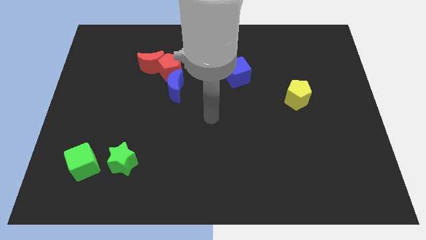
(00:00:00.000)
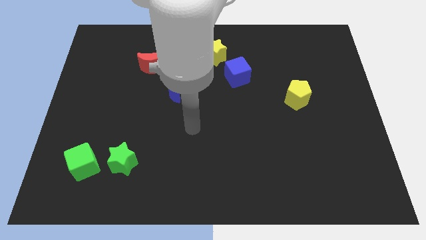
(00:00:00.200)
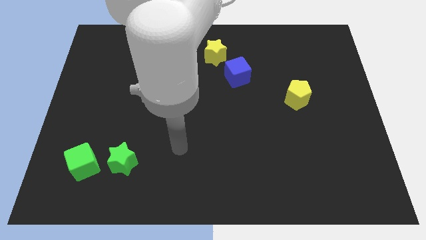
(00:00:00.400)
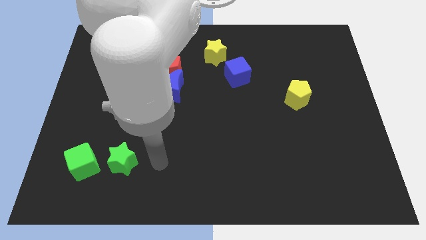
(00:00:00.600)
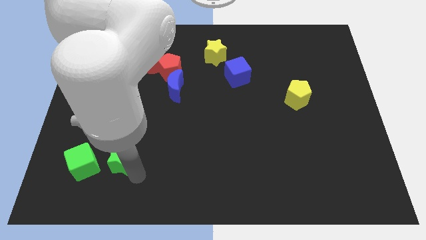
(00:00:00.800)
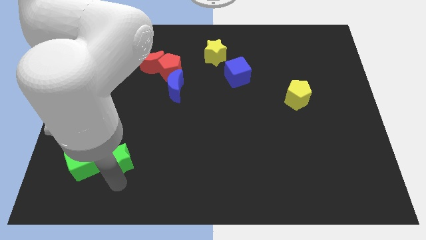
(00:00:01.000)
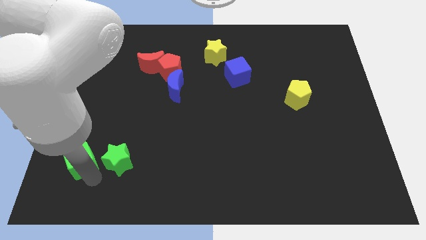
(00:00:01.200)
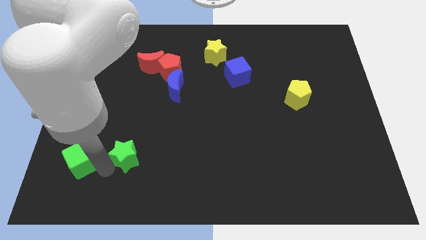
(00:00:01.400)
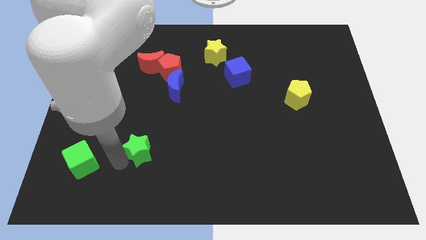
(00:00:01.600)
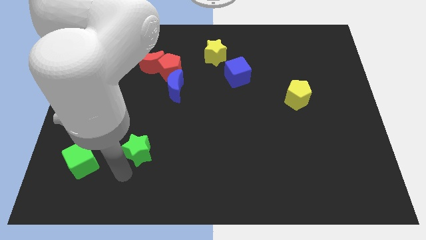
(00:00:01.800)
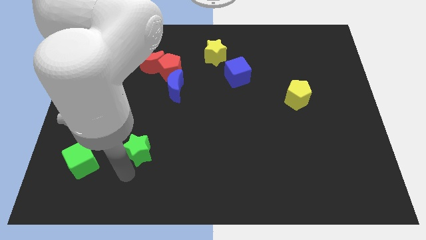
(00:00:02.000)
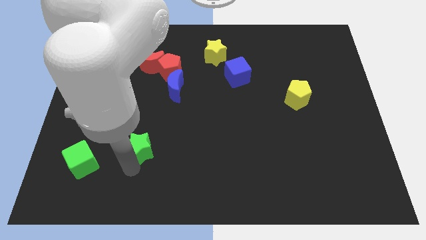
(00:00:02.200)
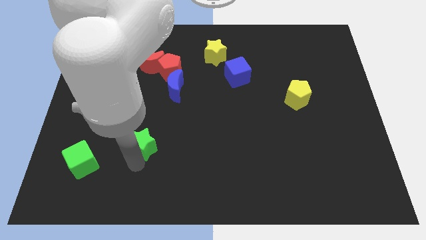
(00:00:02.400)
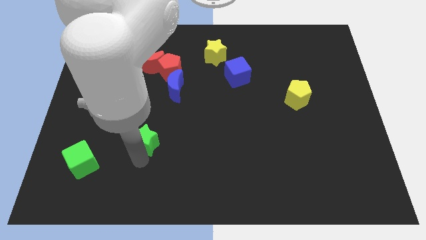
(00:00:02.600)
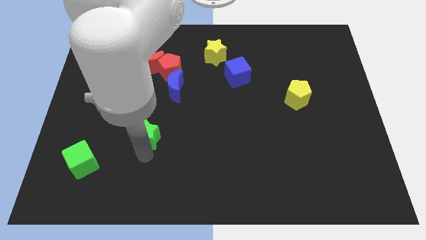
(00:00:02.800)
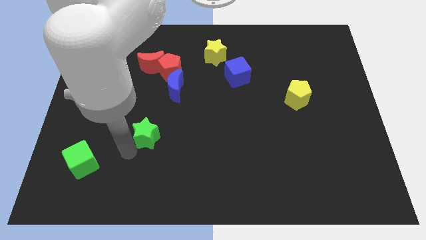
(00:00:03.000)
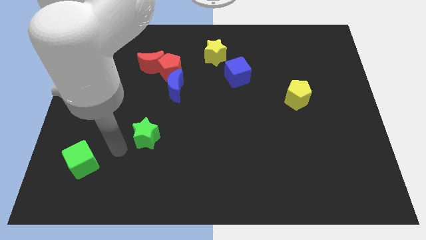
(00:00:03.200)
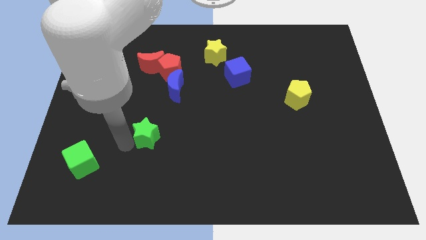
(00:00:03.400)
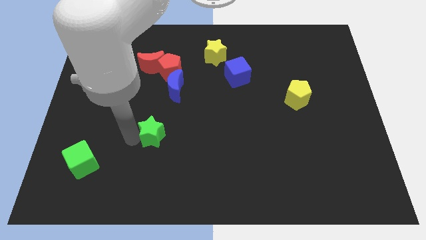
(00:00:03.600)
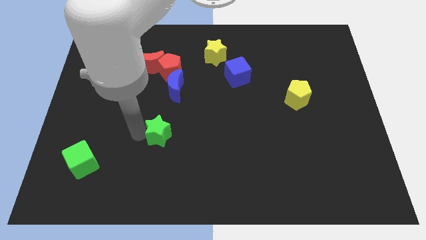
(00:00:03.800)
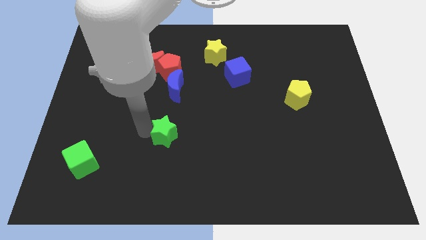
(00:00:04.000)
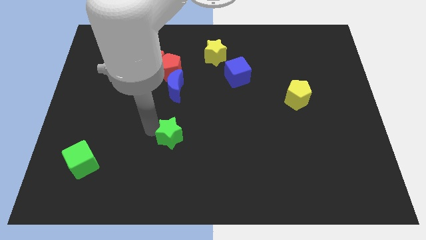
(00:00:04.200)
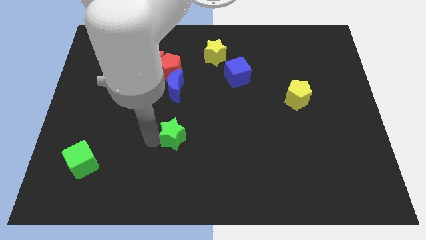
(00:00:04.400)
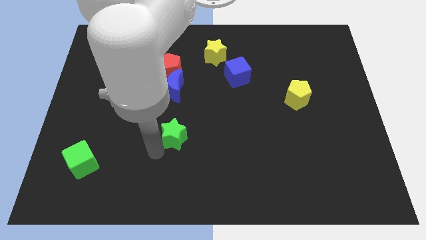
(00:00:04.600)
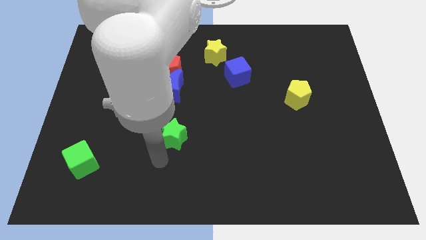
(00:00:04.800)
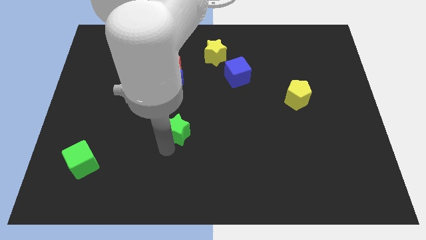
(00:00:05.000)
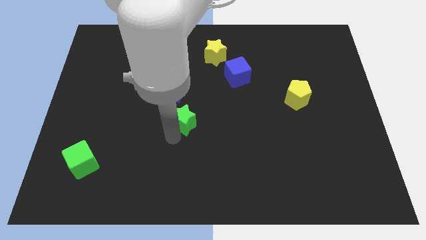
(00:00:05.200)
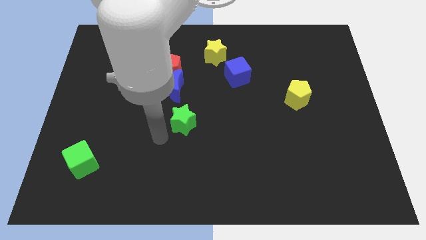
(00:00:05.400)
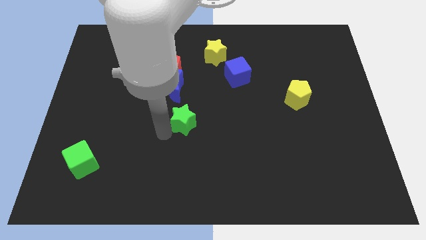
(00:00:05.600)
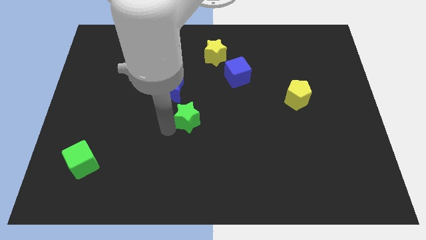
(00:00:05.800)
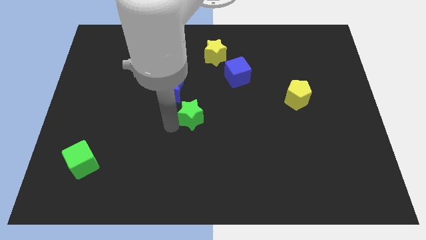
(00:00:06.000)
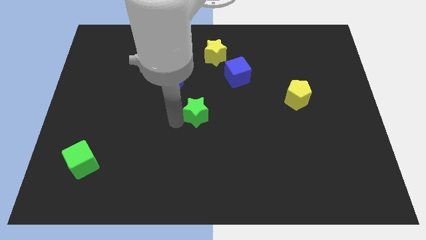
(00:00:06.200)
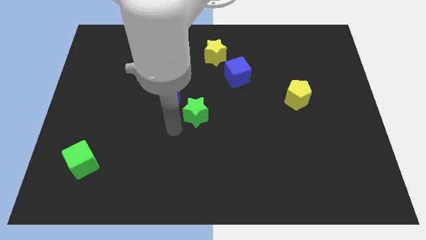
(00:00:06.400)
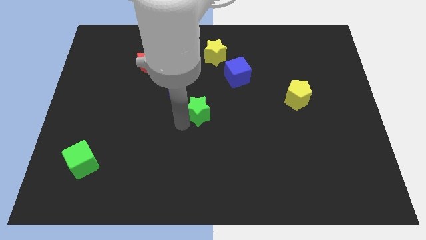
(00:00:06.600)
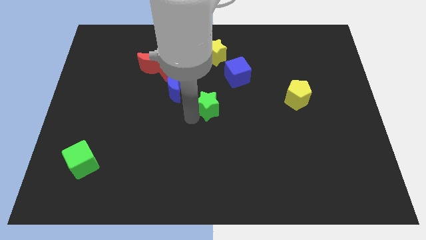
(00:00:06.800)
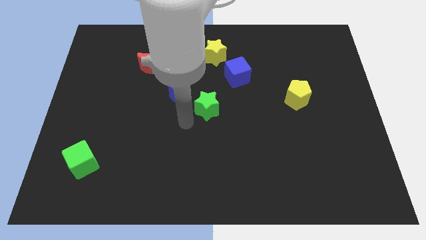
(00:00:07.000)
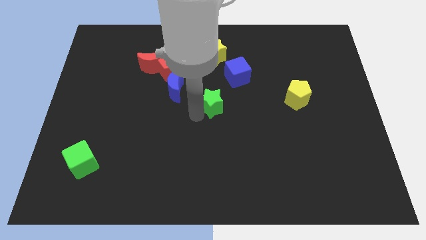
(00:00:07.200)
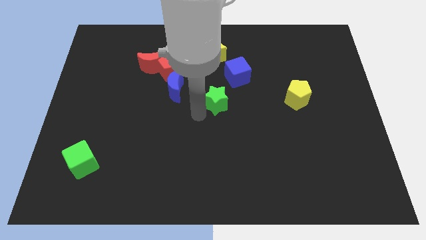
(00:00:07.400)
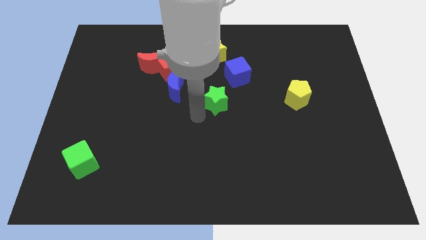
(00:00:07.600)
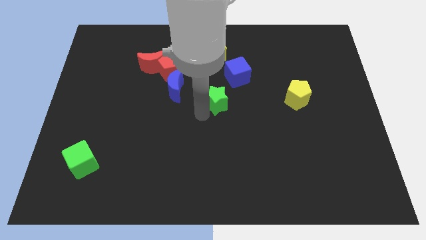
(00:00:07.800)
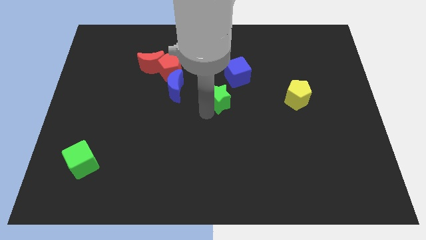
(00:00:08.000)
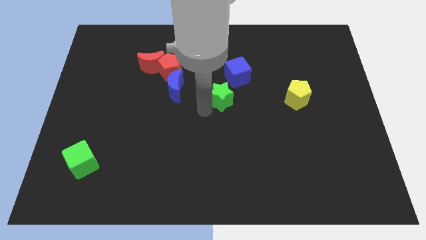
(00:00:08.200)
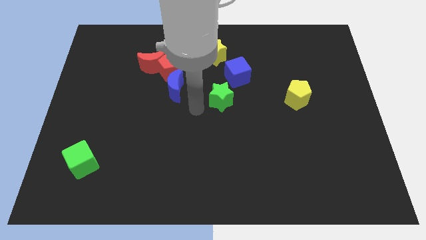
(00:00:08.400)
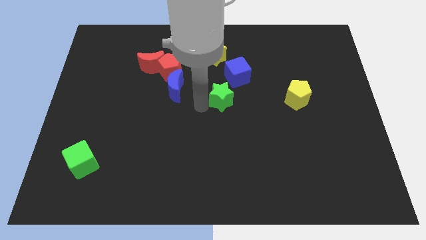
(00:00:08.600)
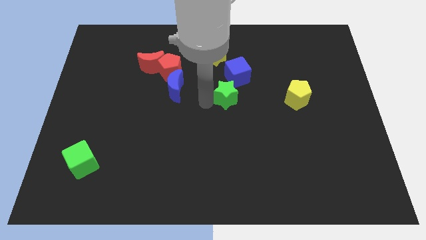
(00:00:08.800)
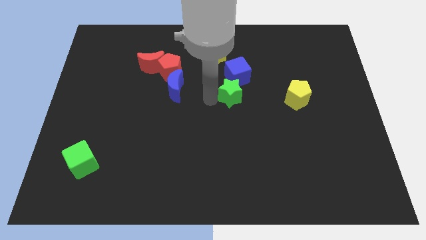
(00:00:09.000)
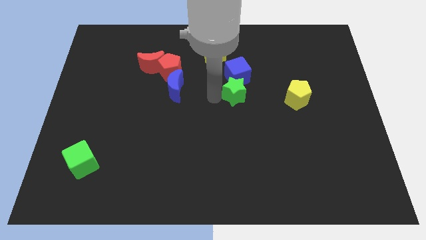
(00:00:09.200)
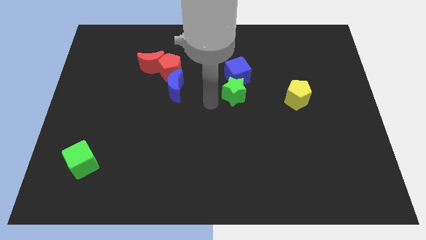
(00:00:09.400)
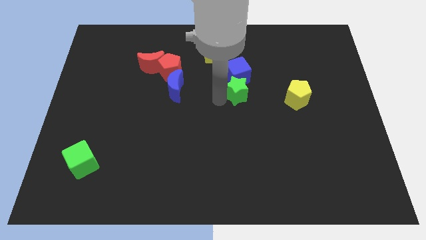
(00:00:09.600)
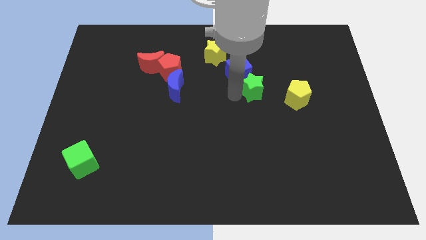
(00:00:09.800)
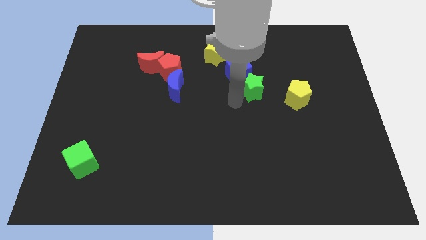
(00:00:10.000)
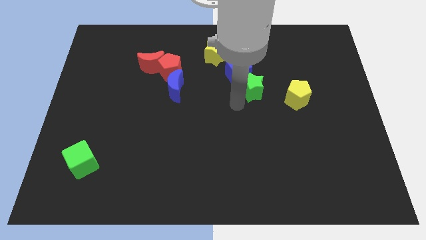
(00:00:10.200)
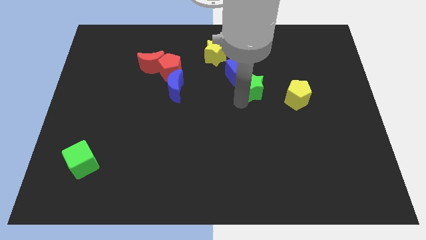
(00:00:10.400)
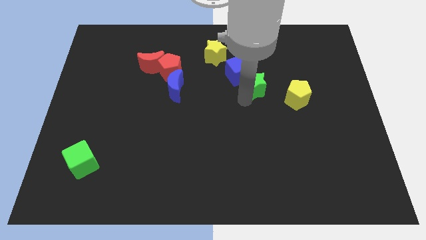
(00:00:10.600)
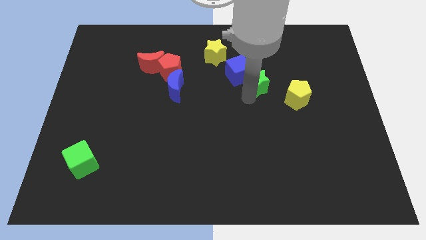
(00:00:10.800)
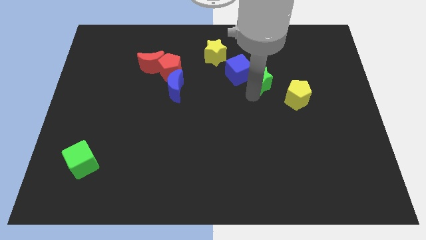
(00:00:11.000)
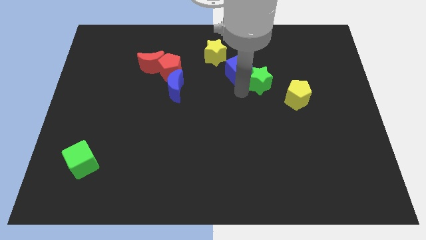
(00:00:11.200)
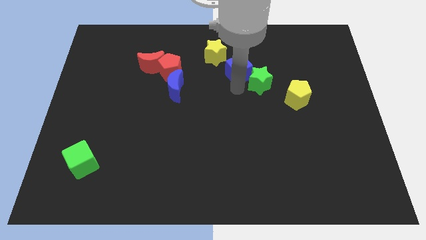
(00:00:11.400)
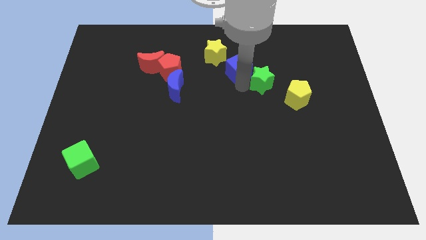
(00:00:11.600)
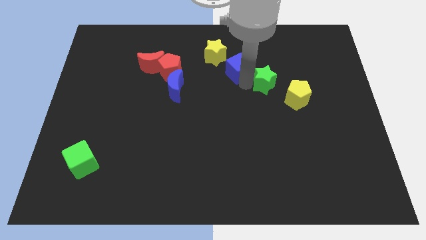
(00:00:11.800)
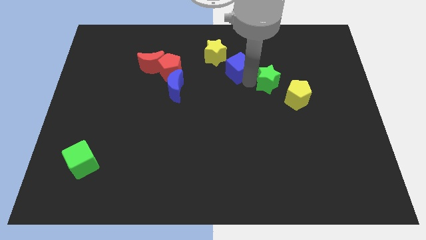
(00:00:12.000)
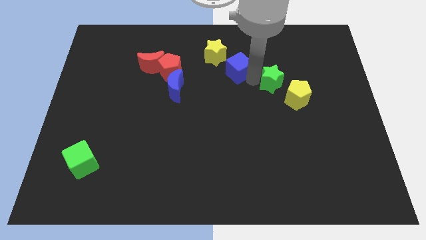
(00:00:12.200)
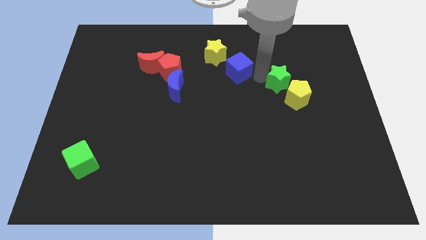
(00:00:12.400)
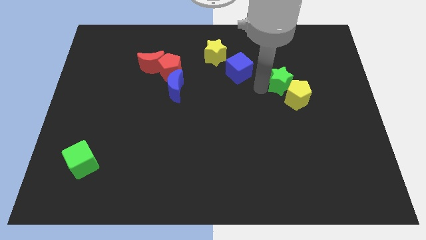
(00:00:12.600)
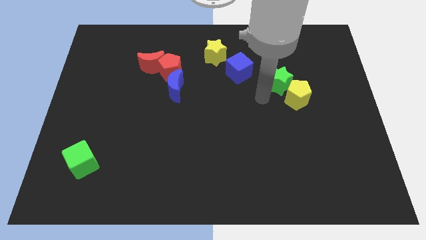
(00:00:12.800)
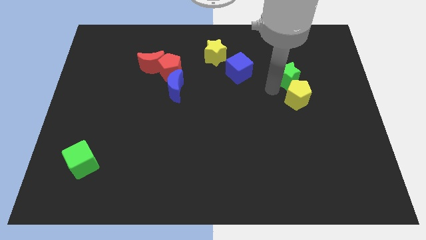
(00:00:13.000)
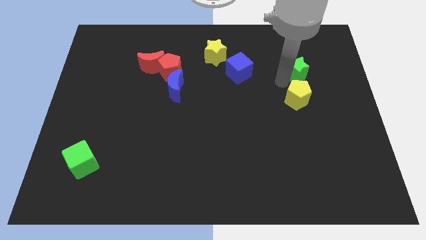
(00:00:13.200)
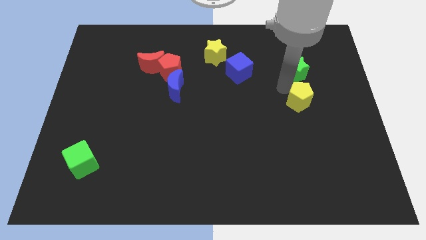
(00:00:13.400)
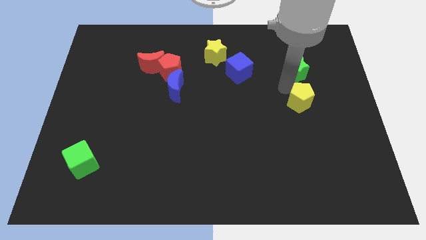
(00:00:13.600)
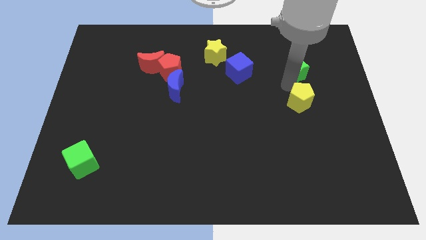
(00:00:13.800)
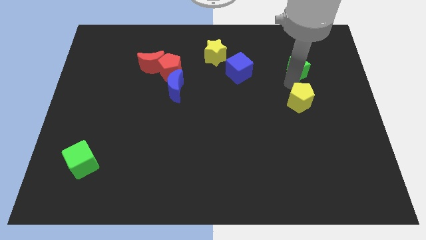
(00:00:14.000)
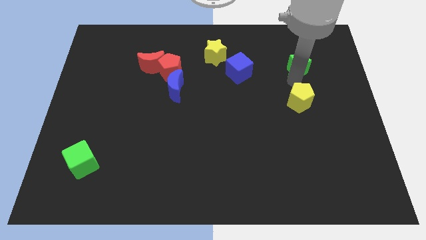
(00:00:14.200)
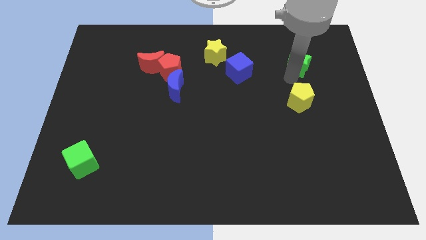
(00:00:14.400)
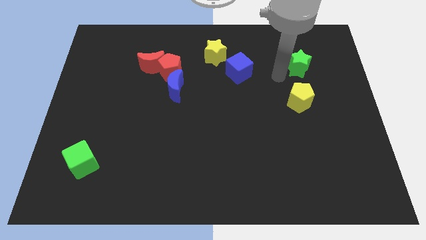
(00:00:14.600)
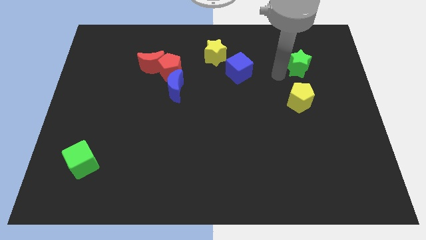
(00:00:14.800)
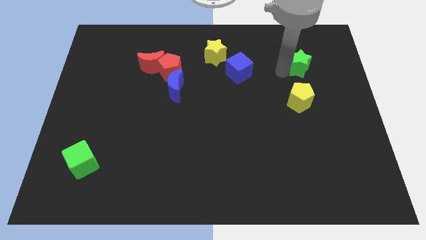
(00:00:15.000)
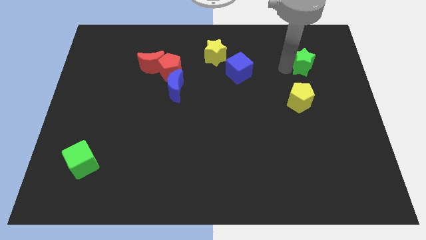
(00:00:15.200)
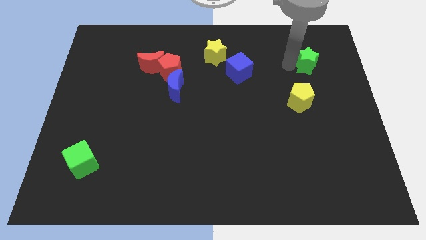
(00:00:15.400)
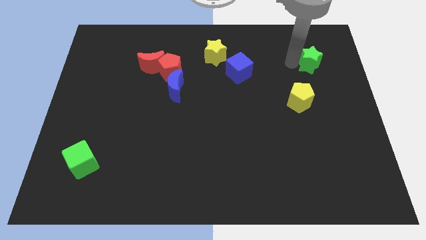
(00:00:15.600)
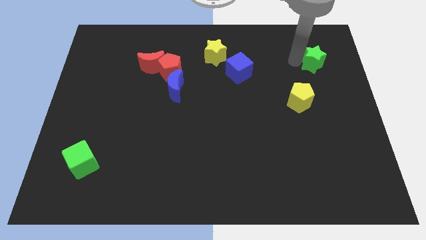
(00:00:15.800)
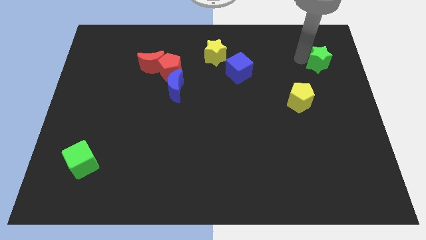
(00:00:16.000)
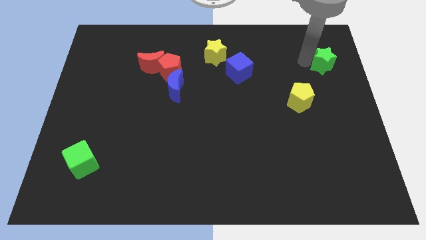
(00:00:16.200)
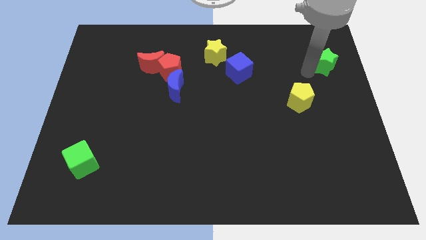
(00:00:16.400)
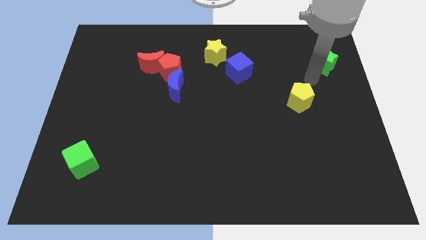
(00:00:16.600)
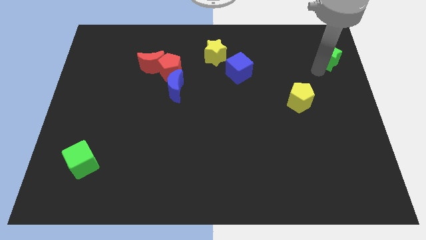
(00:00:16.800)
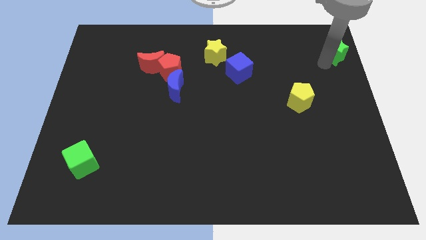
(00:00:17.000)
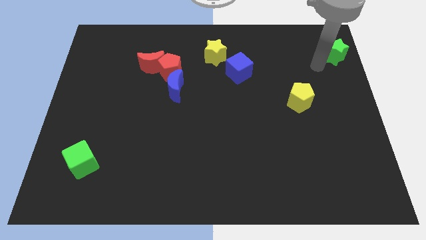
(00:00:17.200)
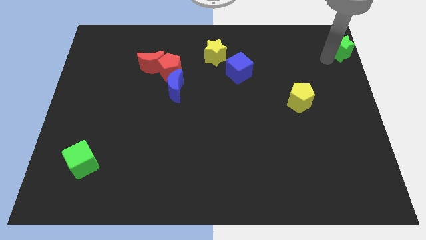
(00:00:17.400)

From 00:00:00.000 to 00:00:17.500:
slide the green star to the top right
